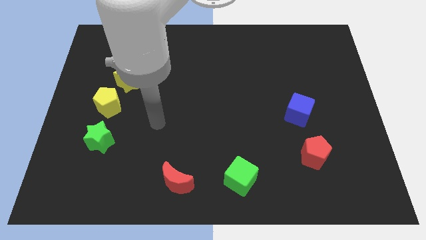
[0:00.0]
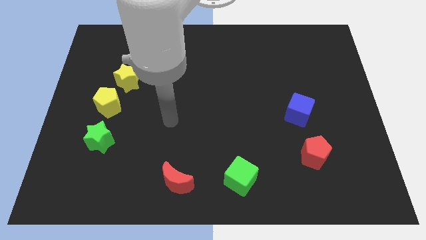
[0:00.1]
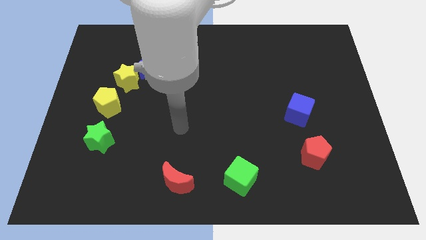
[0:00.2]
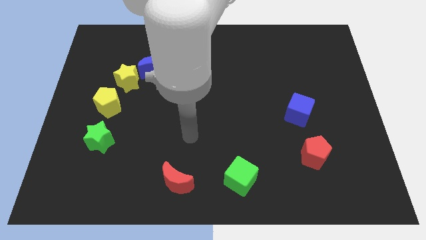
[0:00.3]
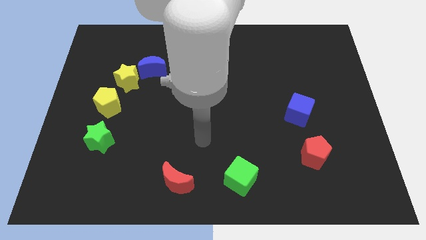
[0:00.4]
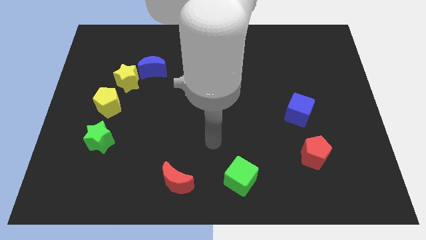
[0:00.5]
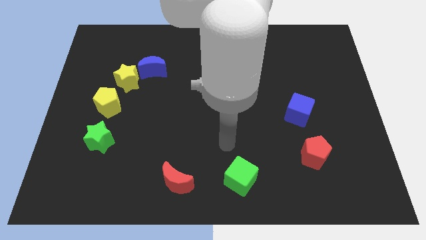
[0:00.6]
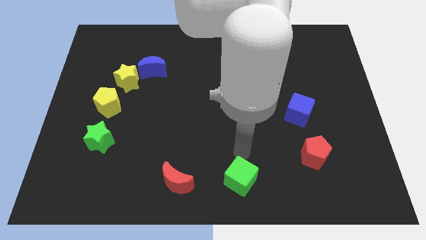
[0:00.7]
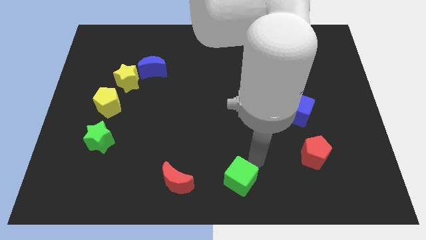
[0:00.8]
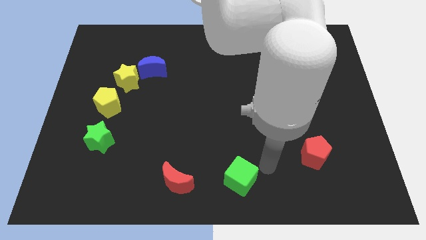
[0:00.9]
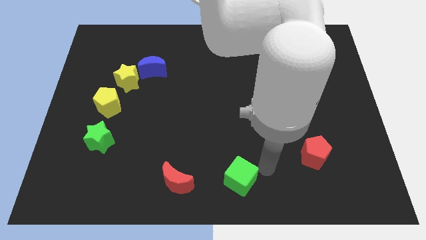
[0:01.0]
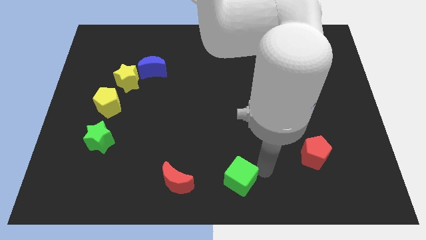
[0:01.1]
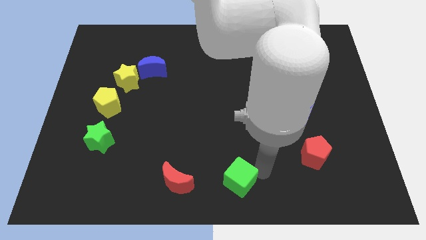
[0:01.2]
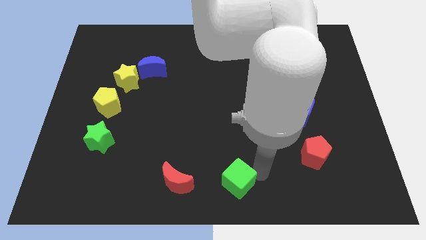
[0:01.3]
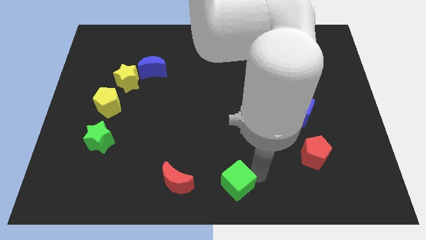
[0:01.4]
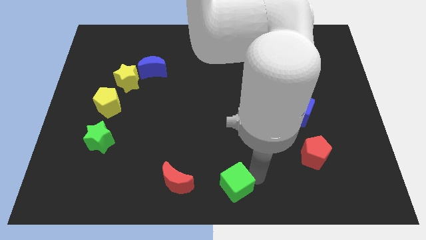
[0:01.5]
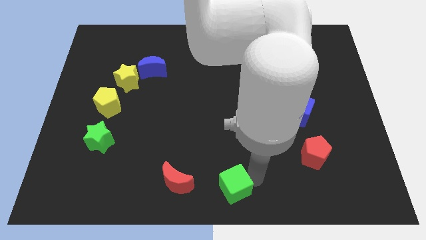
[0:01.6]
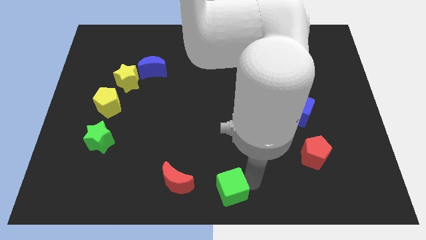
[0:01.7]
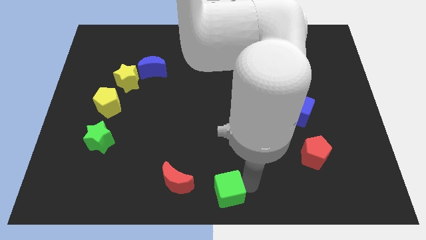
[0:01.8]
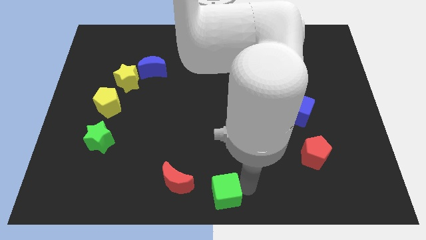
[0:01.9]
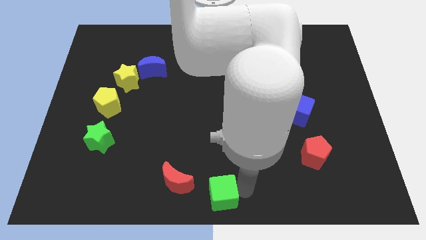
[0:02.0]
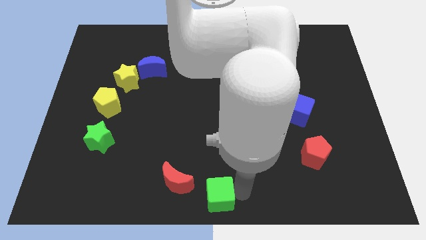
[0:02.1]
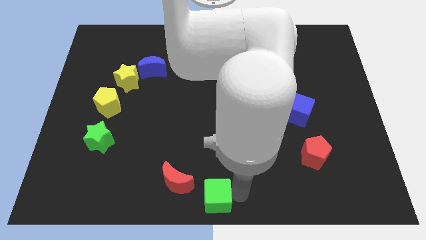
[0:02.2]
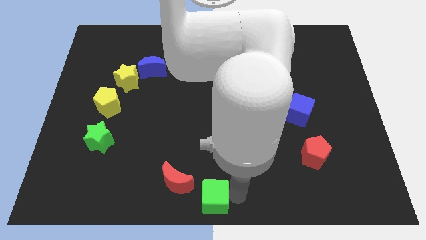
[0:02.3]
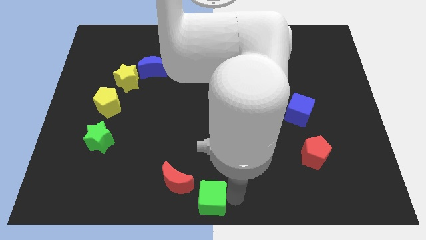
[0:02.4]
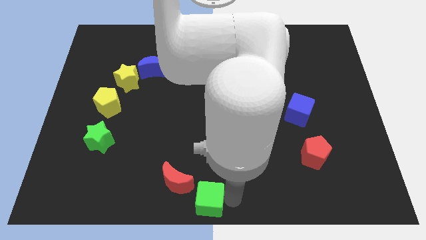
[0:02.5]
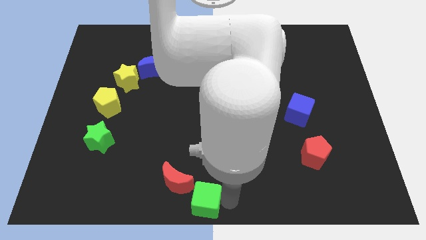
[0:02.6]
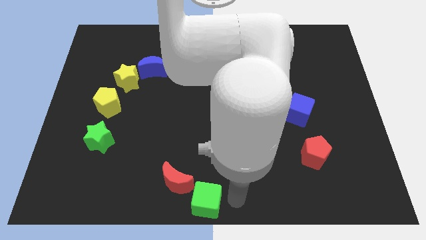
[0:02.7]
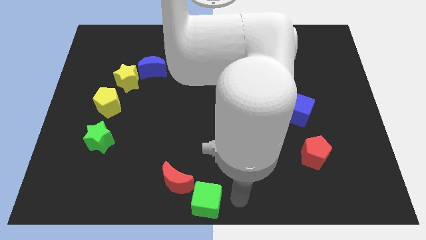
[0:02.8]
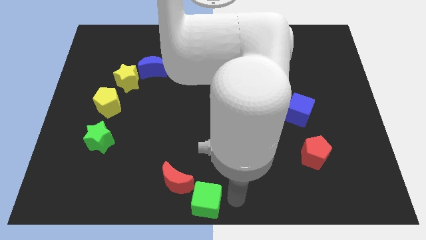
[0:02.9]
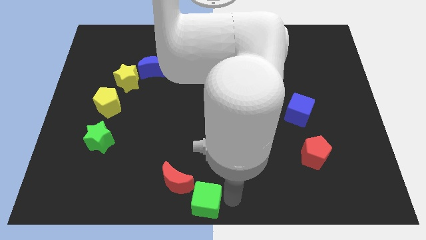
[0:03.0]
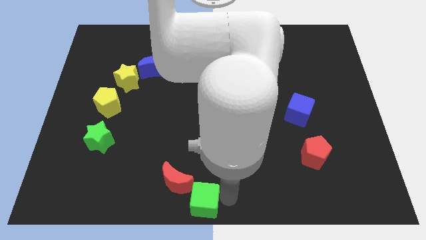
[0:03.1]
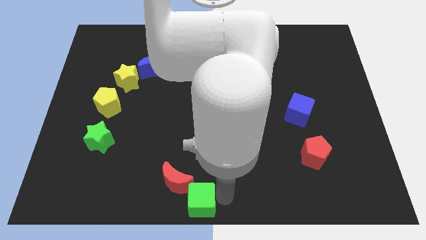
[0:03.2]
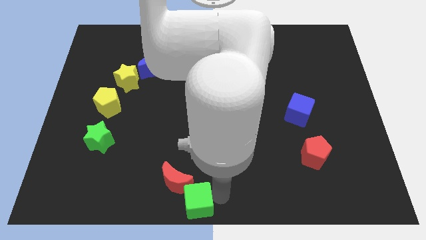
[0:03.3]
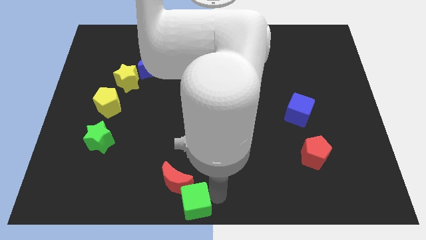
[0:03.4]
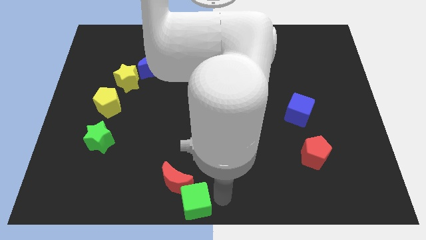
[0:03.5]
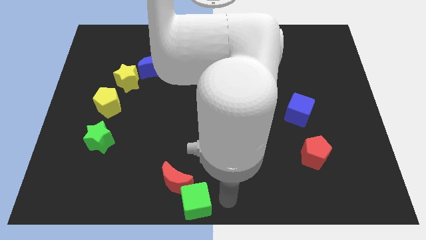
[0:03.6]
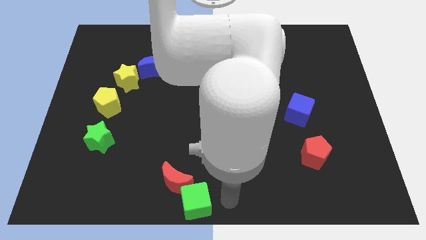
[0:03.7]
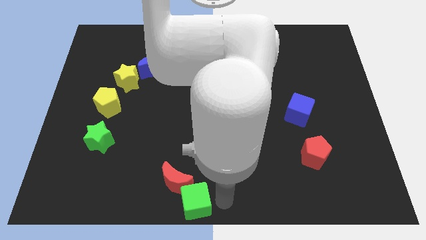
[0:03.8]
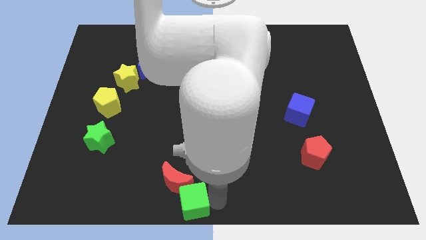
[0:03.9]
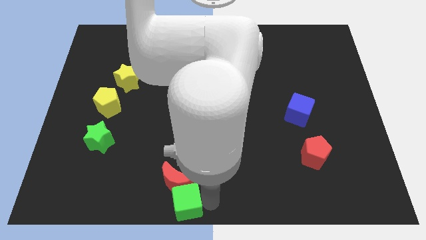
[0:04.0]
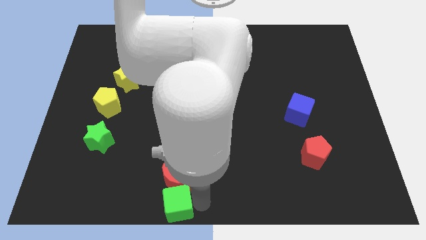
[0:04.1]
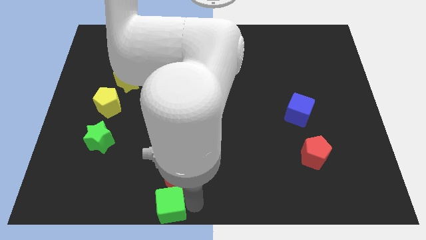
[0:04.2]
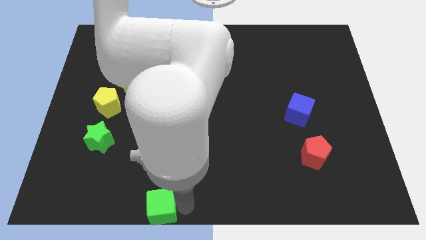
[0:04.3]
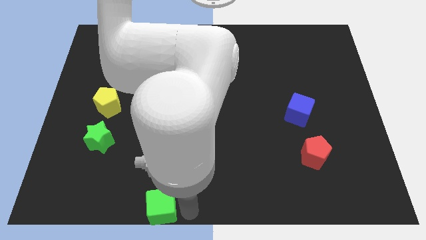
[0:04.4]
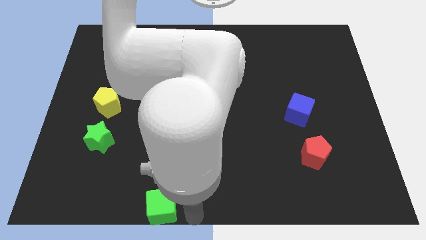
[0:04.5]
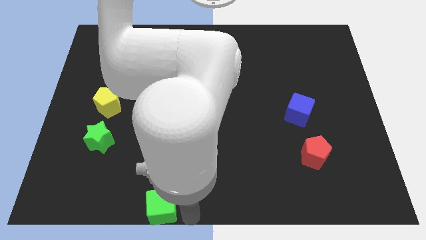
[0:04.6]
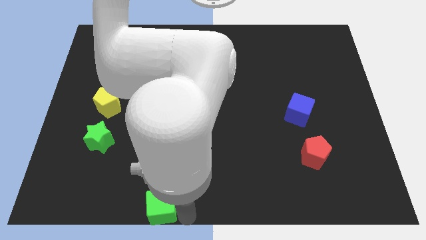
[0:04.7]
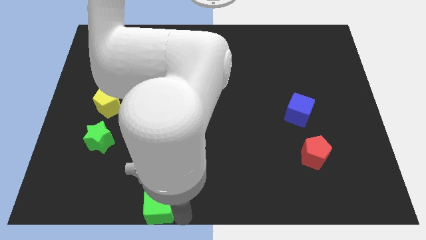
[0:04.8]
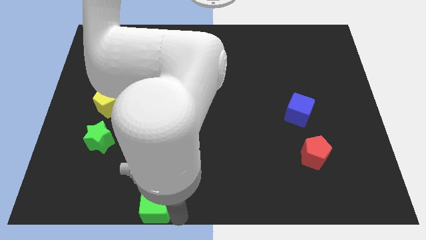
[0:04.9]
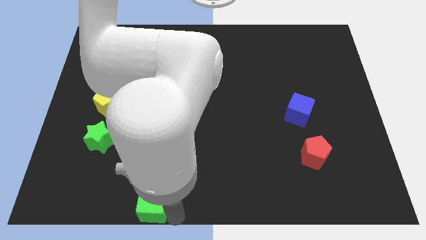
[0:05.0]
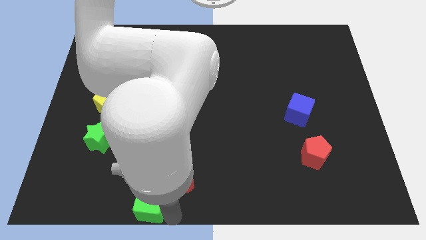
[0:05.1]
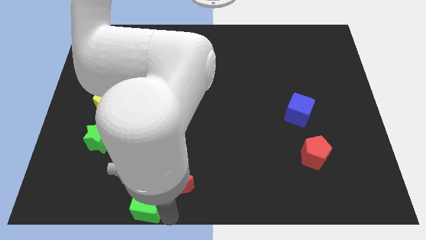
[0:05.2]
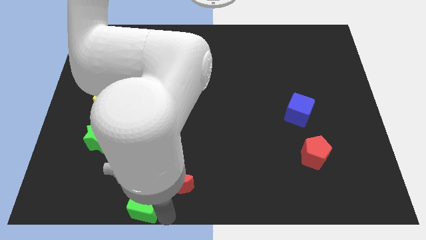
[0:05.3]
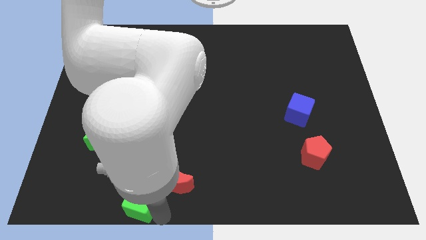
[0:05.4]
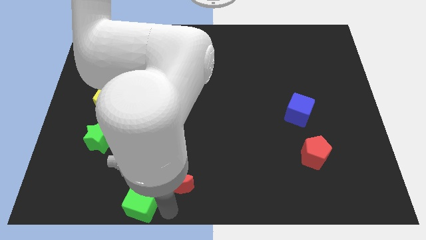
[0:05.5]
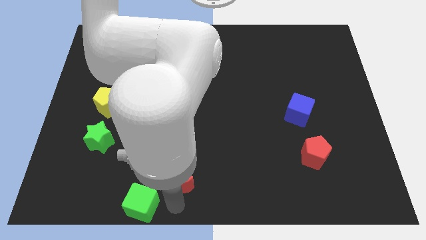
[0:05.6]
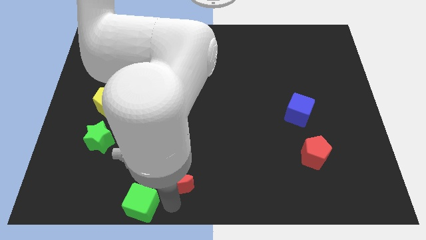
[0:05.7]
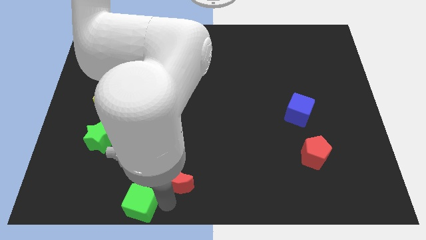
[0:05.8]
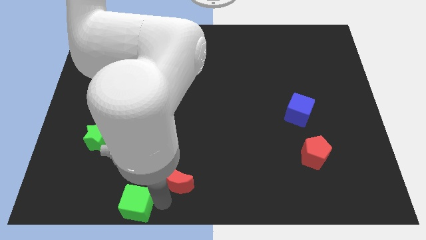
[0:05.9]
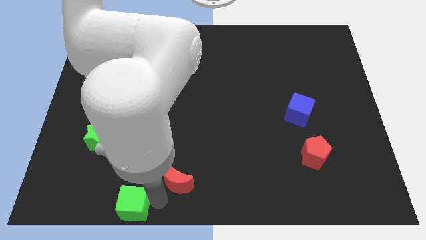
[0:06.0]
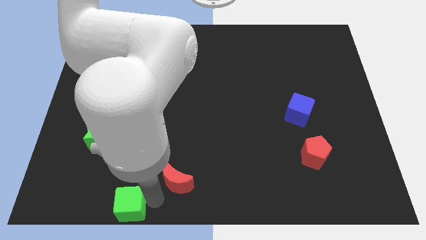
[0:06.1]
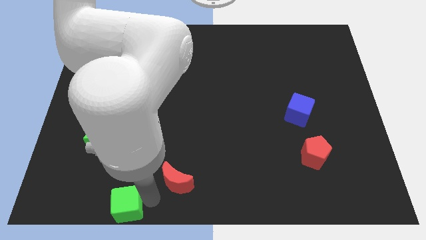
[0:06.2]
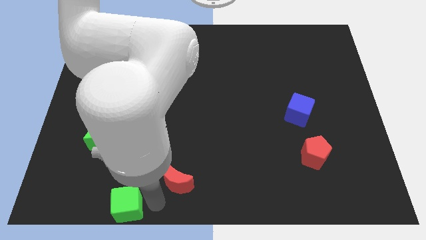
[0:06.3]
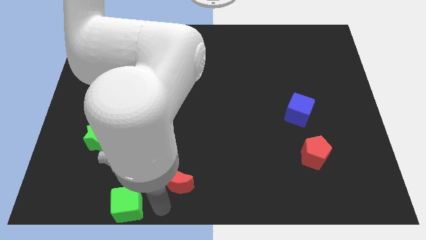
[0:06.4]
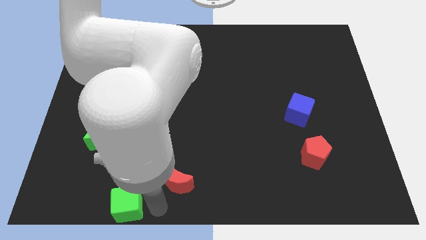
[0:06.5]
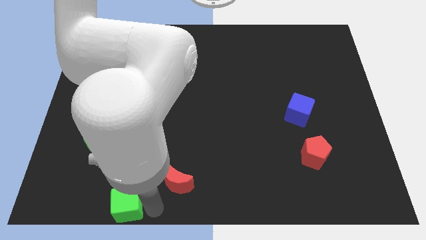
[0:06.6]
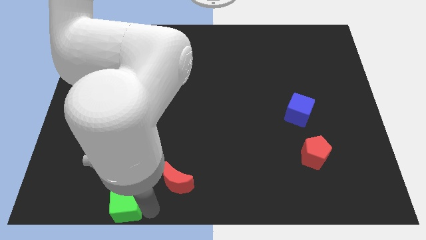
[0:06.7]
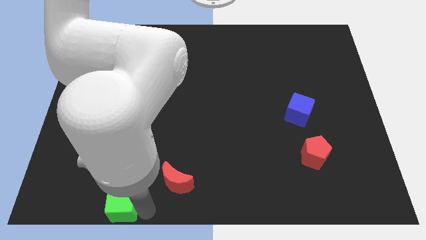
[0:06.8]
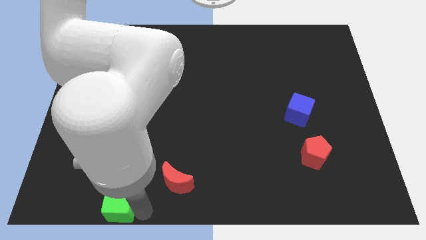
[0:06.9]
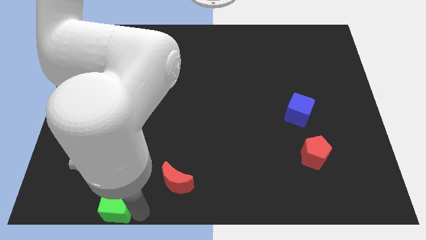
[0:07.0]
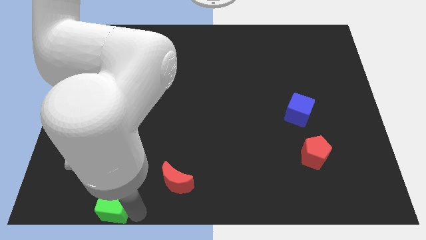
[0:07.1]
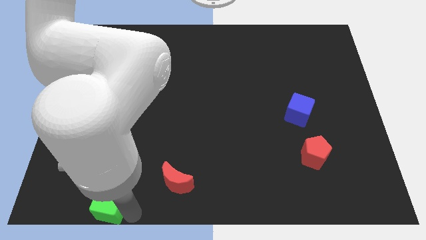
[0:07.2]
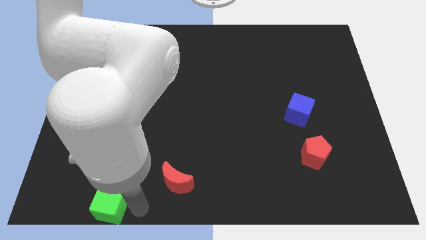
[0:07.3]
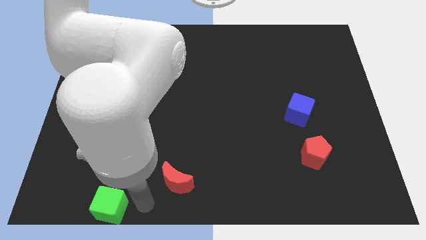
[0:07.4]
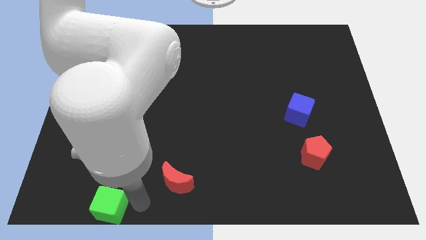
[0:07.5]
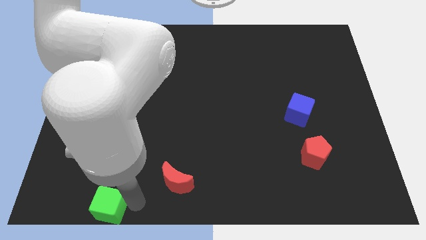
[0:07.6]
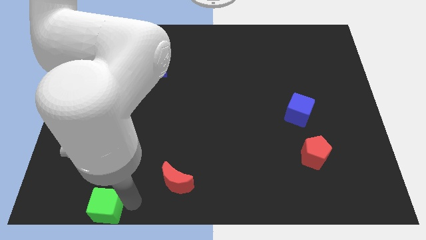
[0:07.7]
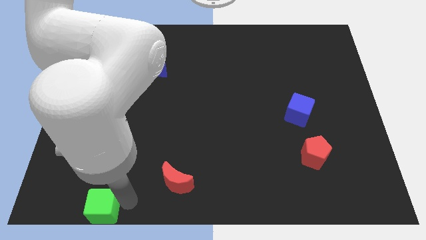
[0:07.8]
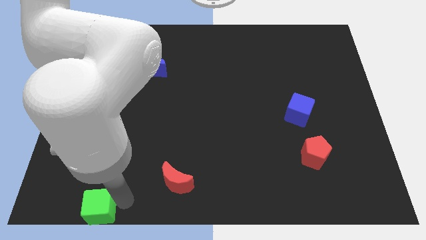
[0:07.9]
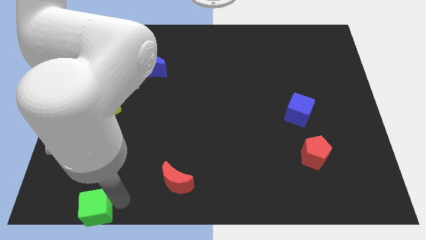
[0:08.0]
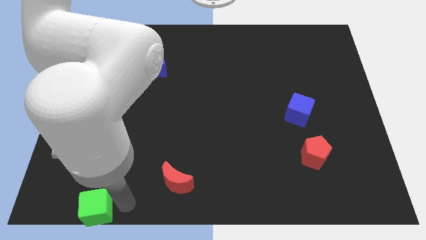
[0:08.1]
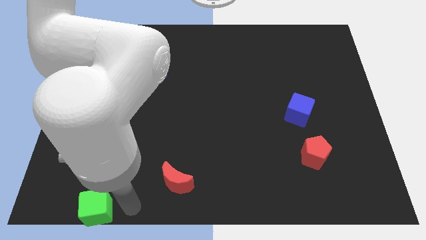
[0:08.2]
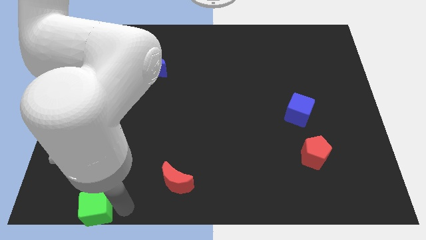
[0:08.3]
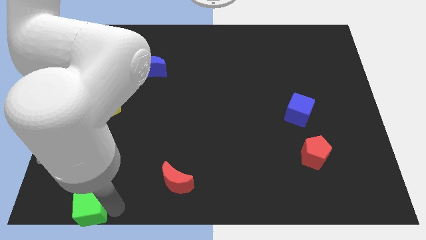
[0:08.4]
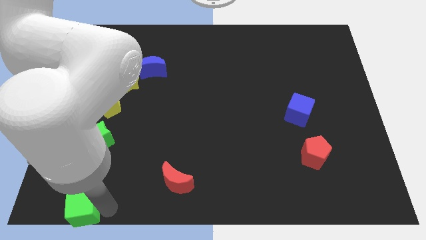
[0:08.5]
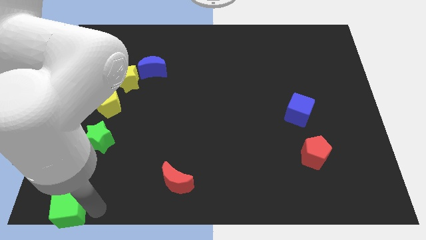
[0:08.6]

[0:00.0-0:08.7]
slide the green cube to the lower left corner
